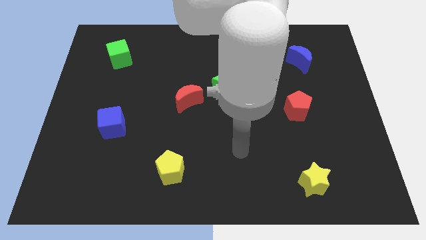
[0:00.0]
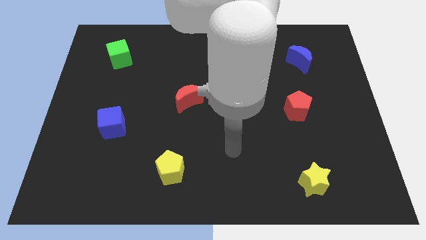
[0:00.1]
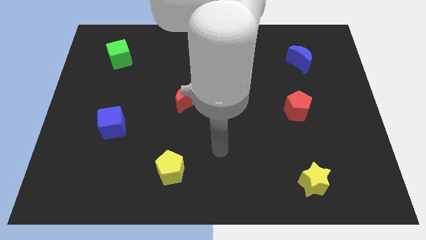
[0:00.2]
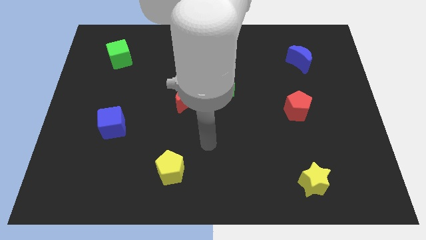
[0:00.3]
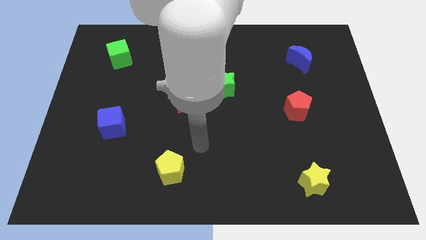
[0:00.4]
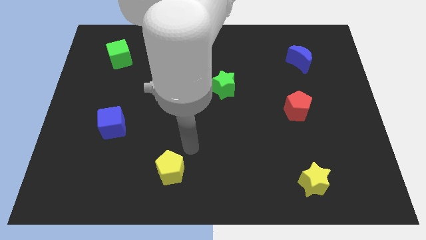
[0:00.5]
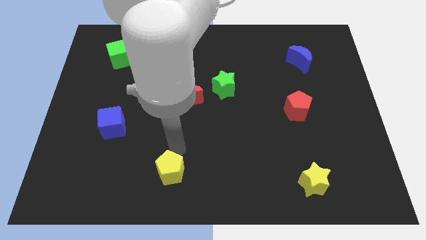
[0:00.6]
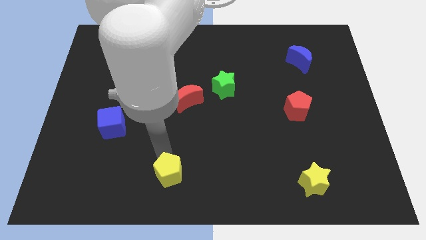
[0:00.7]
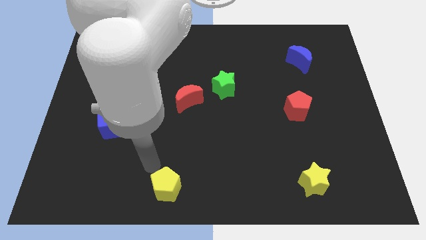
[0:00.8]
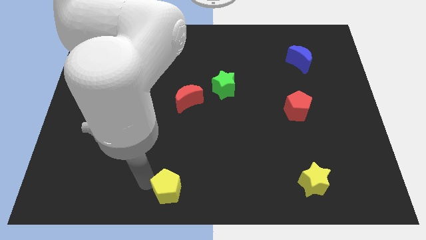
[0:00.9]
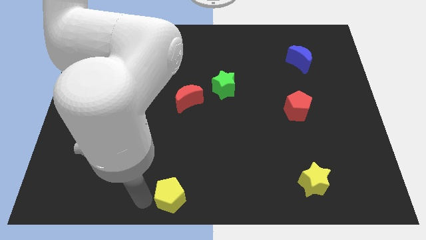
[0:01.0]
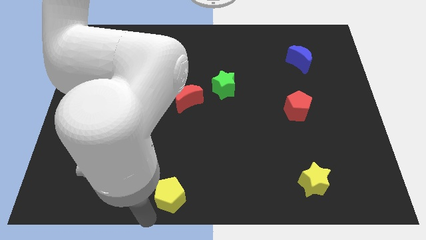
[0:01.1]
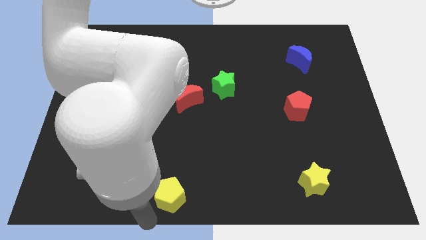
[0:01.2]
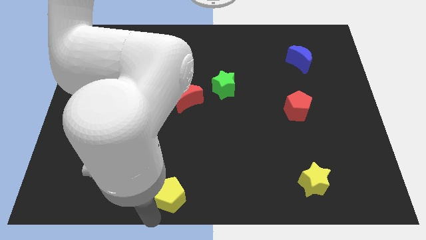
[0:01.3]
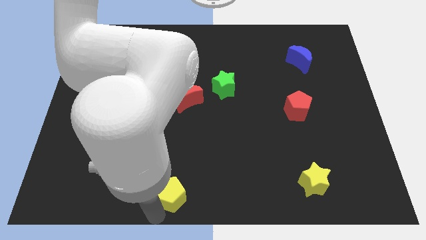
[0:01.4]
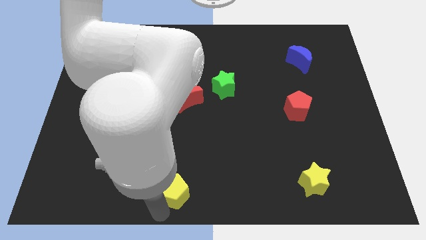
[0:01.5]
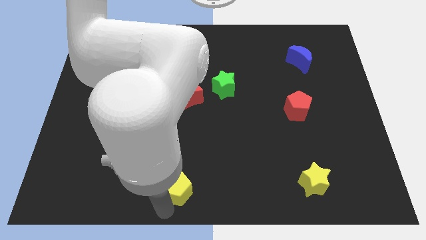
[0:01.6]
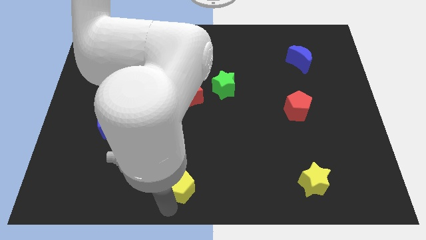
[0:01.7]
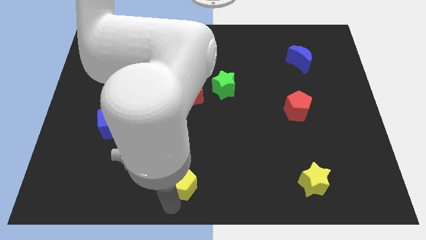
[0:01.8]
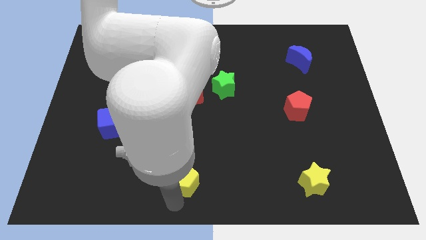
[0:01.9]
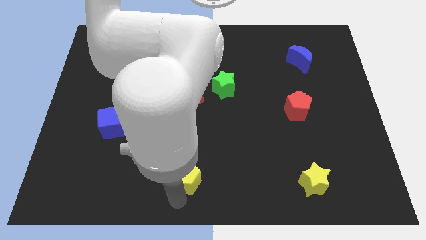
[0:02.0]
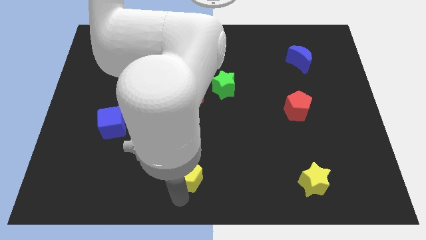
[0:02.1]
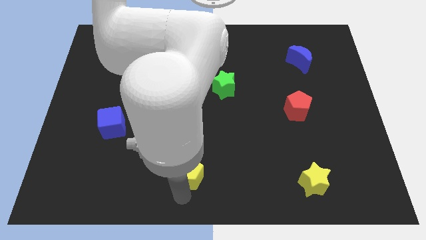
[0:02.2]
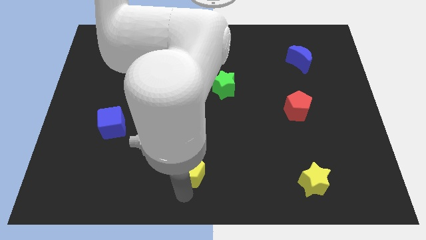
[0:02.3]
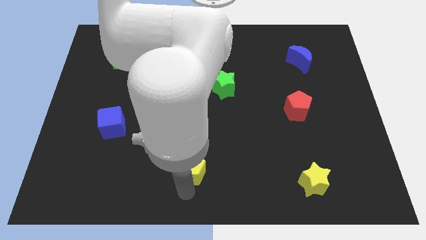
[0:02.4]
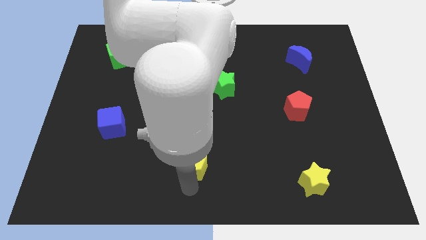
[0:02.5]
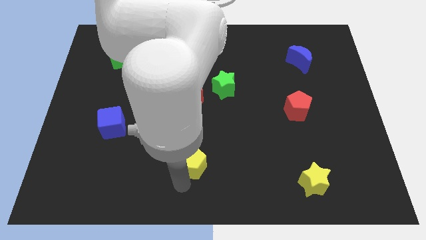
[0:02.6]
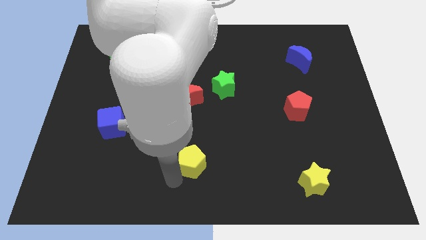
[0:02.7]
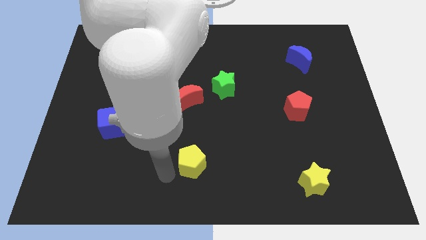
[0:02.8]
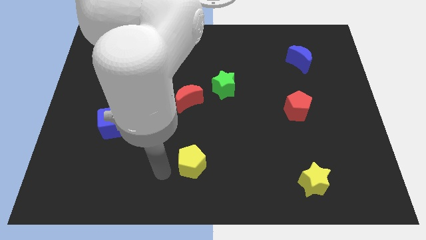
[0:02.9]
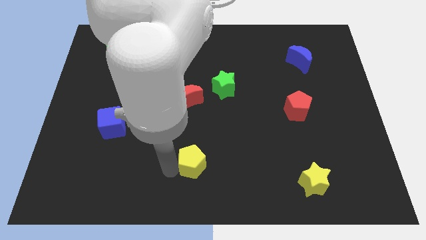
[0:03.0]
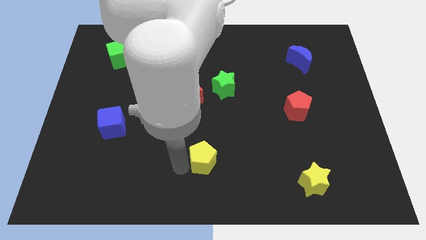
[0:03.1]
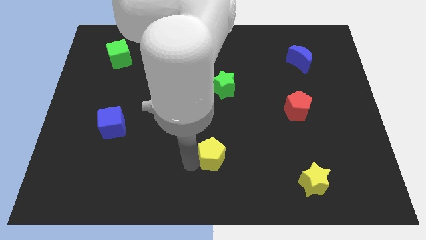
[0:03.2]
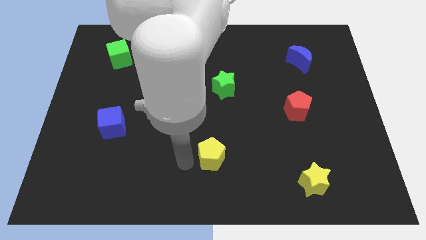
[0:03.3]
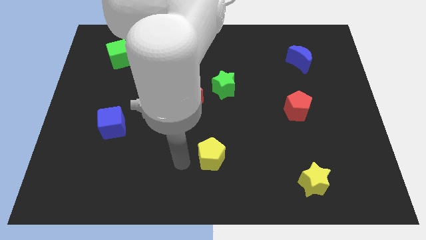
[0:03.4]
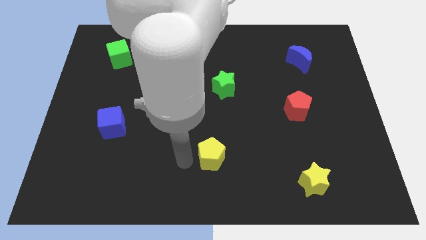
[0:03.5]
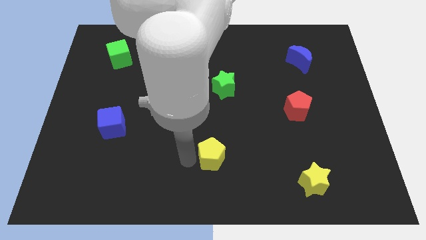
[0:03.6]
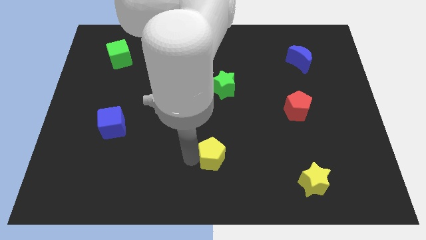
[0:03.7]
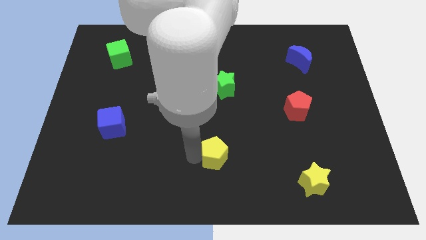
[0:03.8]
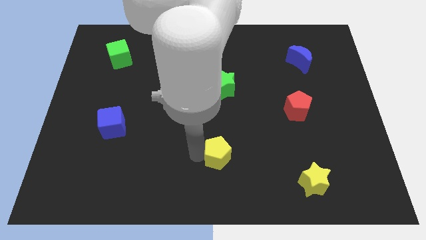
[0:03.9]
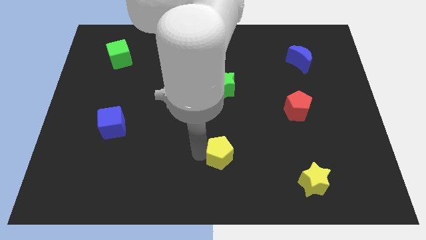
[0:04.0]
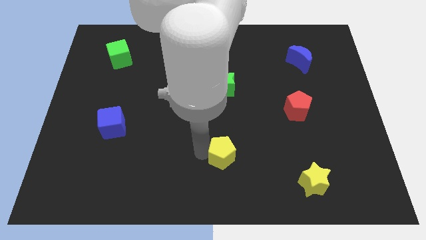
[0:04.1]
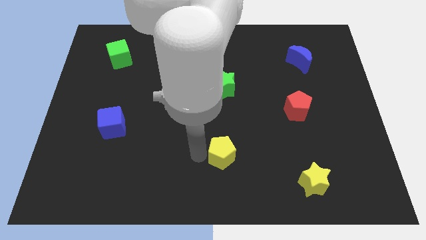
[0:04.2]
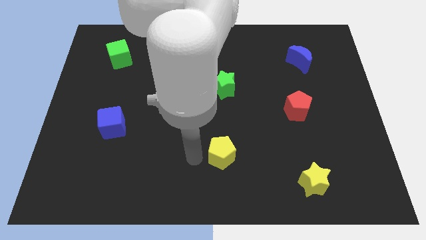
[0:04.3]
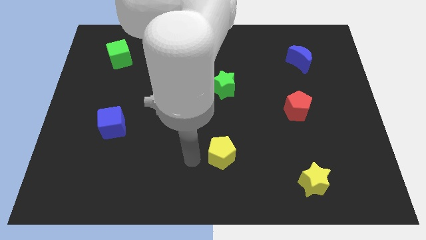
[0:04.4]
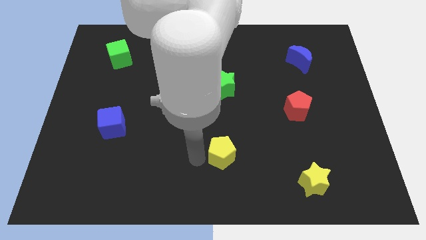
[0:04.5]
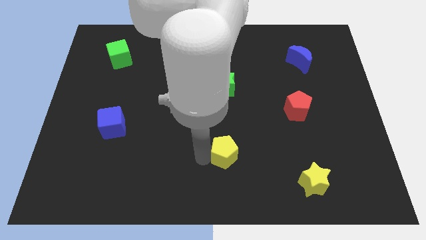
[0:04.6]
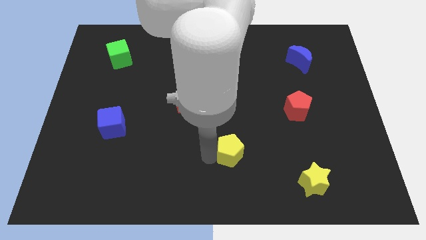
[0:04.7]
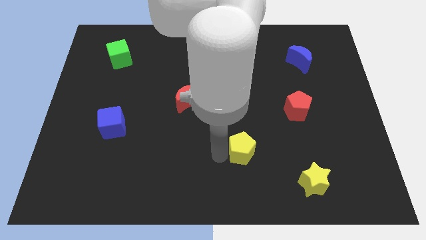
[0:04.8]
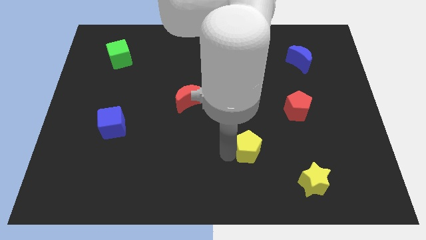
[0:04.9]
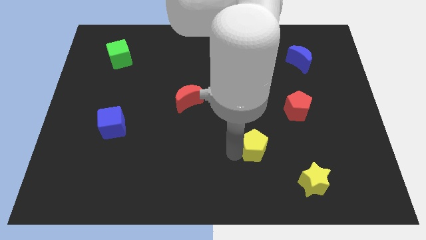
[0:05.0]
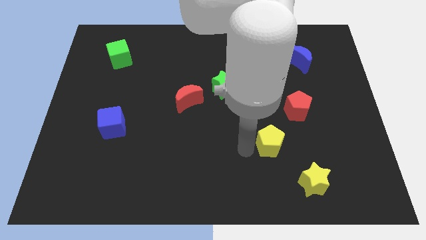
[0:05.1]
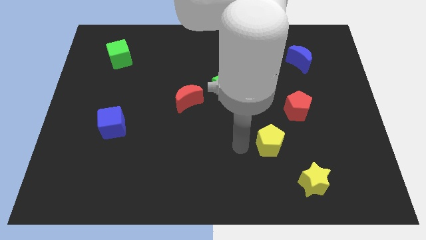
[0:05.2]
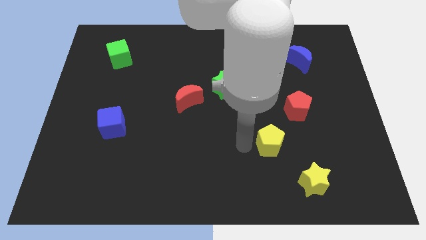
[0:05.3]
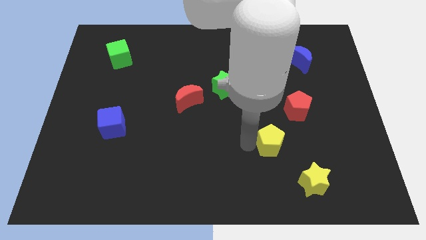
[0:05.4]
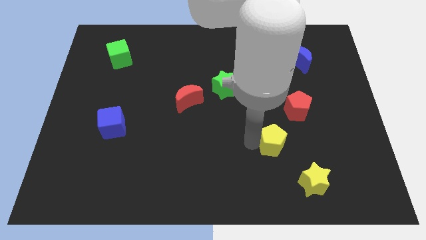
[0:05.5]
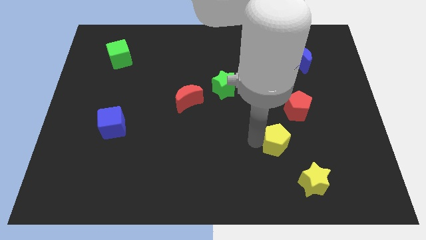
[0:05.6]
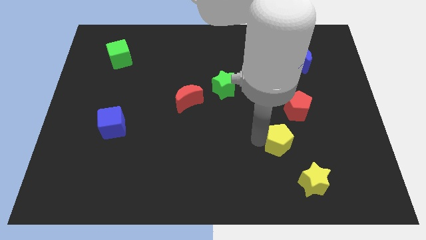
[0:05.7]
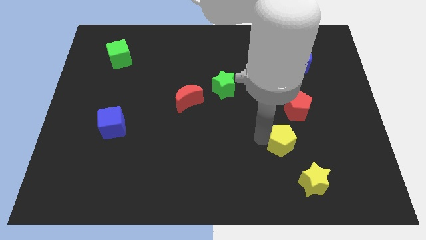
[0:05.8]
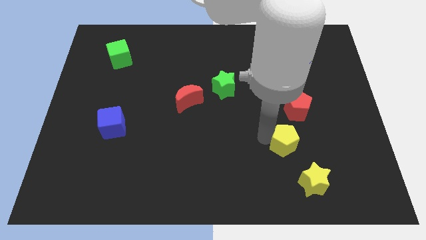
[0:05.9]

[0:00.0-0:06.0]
move the yellow pentagon to the top of the yellow star

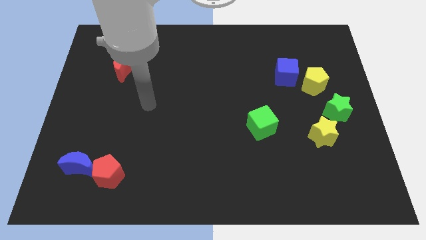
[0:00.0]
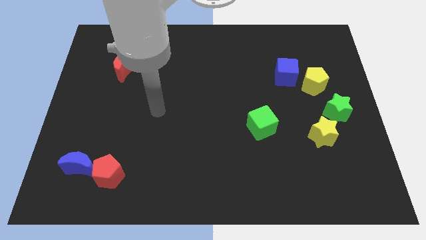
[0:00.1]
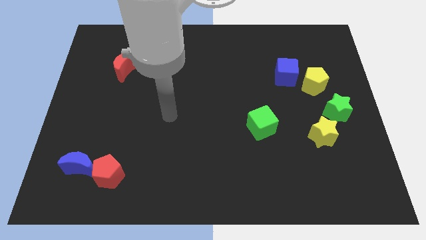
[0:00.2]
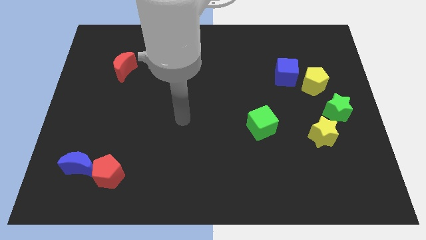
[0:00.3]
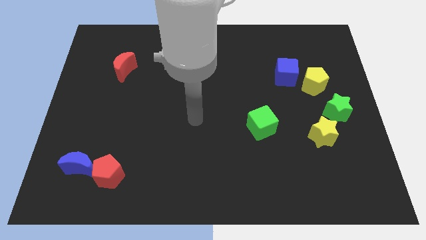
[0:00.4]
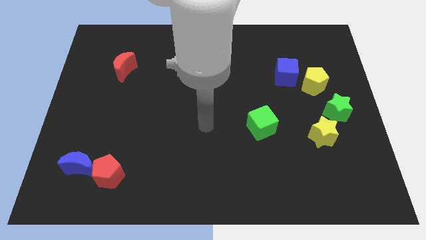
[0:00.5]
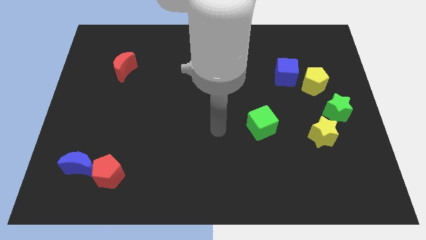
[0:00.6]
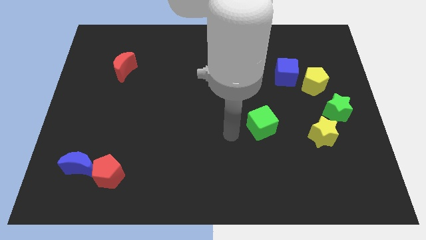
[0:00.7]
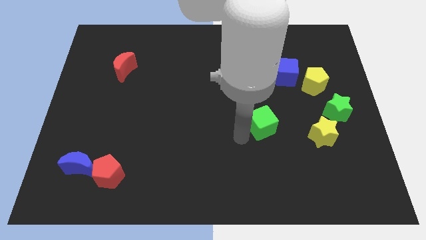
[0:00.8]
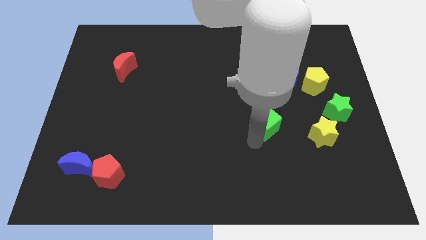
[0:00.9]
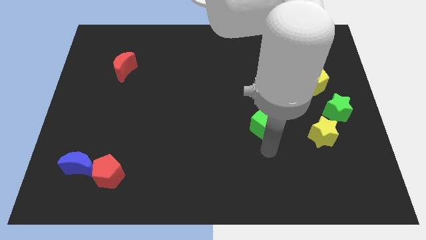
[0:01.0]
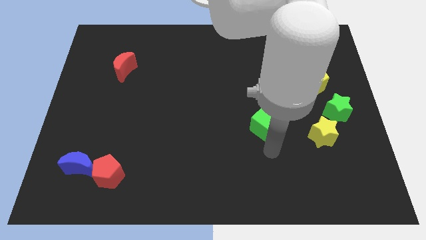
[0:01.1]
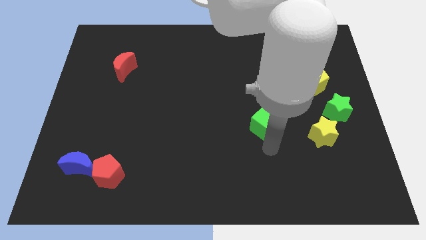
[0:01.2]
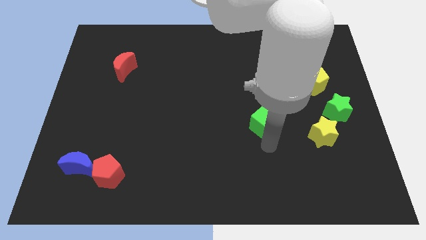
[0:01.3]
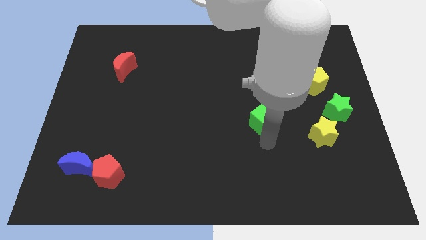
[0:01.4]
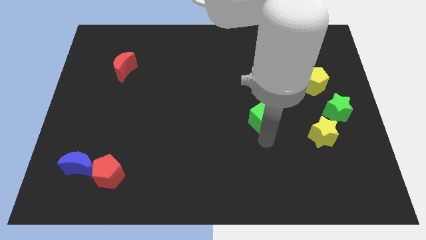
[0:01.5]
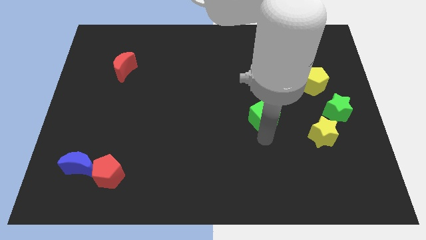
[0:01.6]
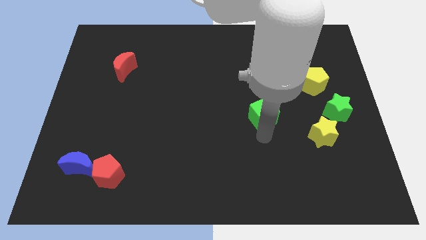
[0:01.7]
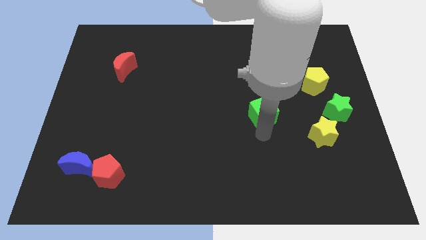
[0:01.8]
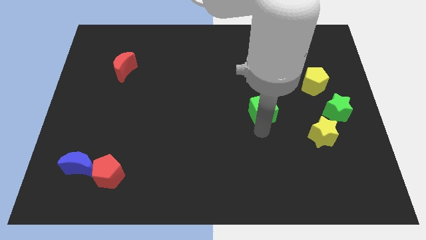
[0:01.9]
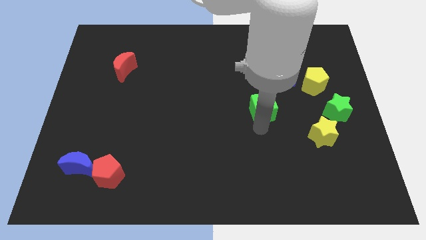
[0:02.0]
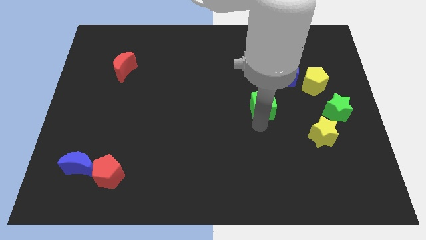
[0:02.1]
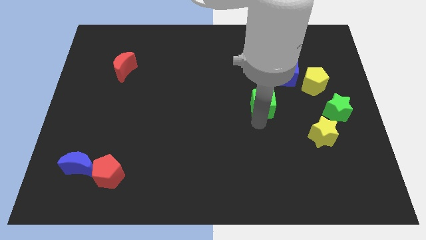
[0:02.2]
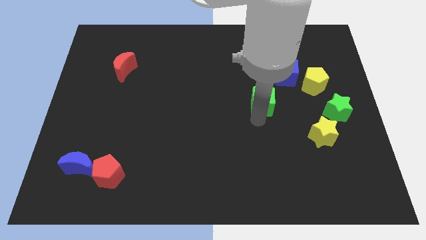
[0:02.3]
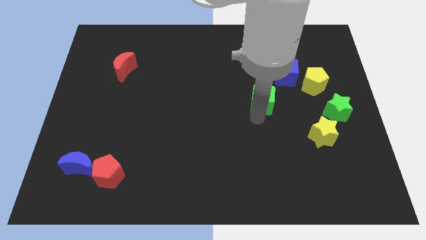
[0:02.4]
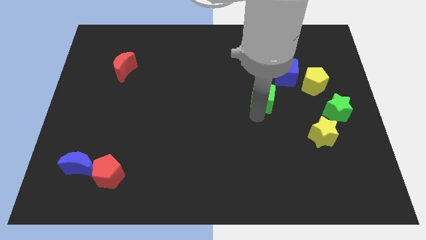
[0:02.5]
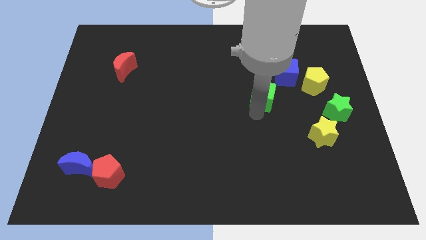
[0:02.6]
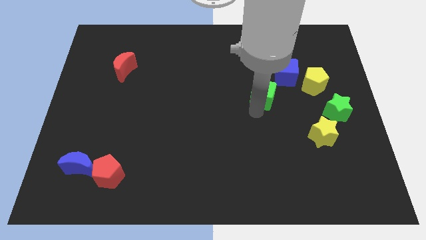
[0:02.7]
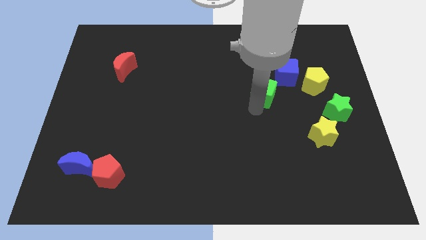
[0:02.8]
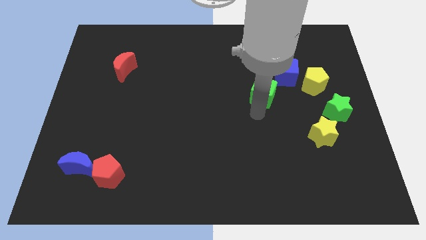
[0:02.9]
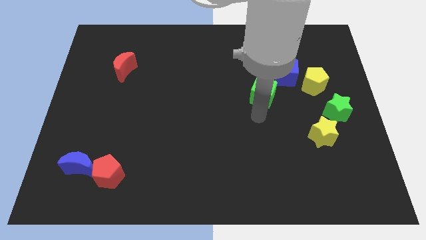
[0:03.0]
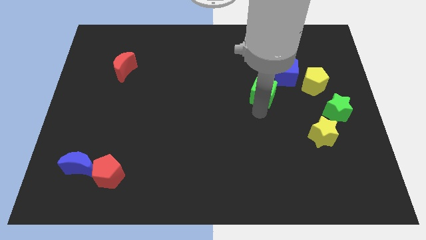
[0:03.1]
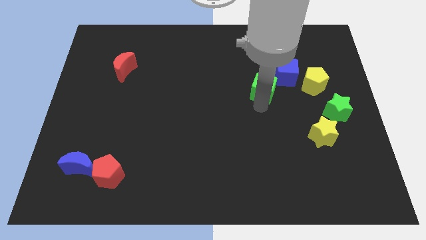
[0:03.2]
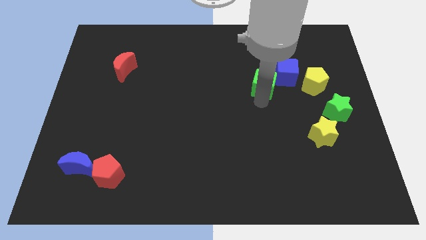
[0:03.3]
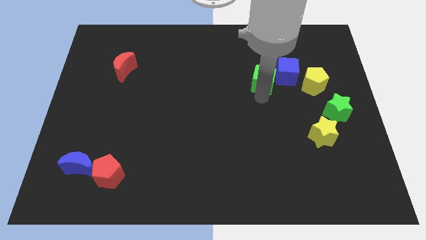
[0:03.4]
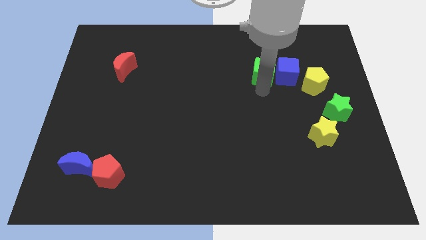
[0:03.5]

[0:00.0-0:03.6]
push the green cube to the top left side of the blue cube
